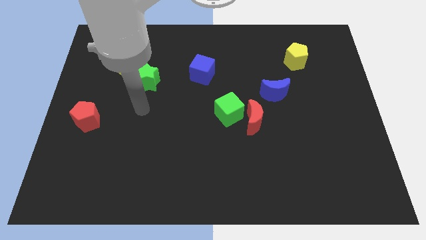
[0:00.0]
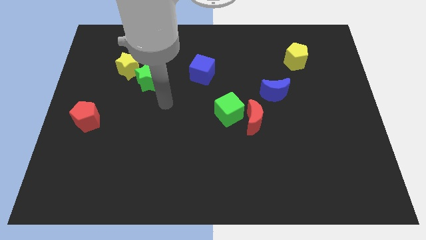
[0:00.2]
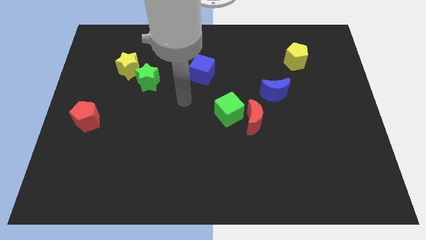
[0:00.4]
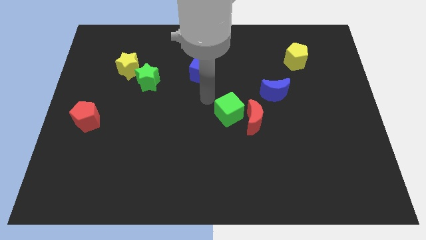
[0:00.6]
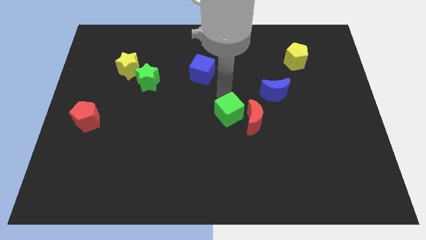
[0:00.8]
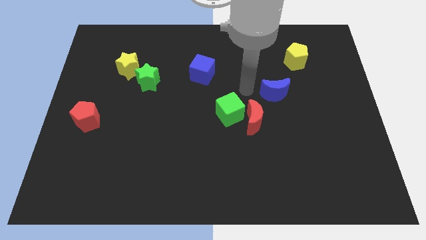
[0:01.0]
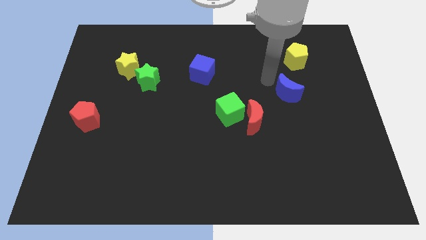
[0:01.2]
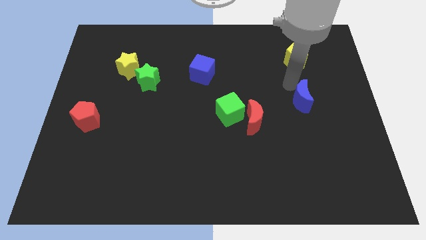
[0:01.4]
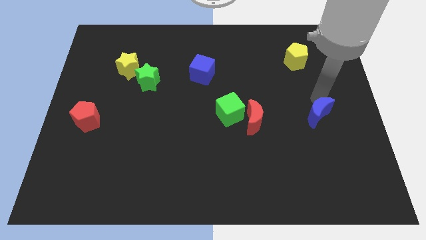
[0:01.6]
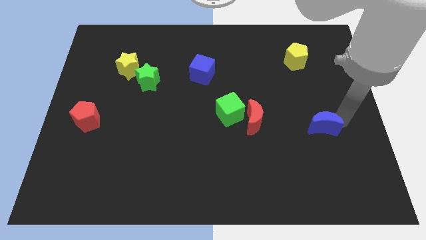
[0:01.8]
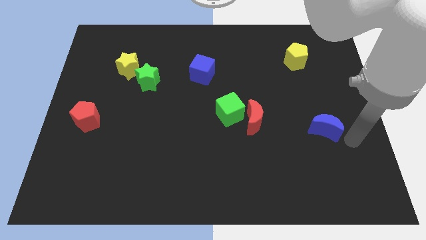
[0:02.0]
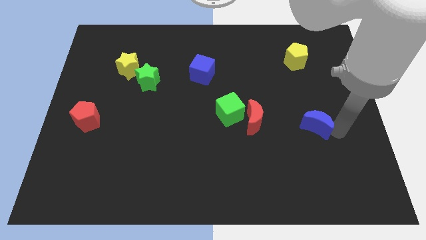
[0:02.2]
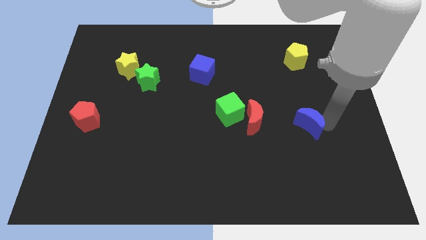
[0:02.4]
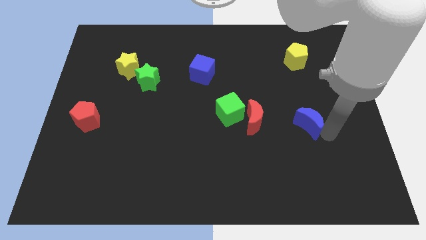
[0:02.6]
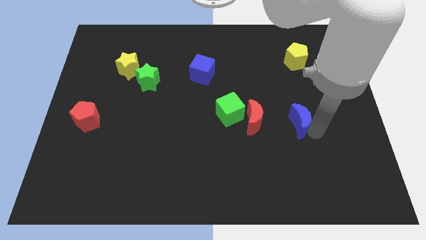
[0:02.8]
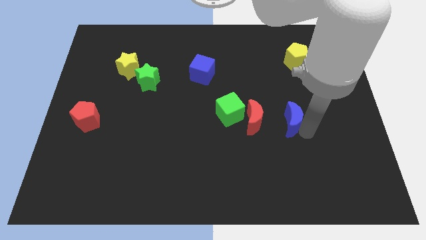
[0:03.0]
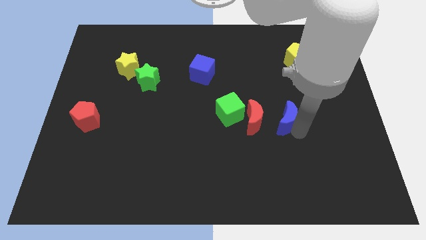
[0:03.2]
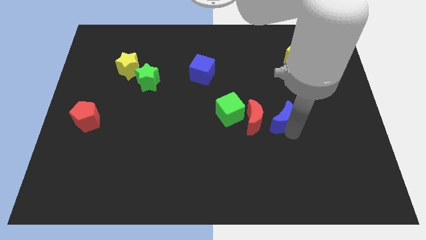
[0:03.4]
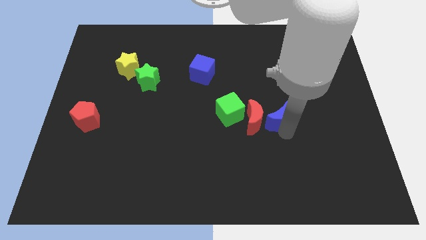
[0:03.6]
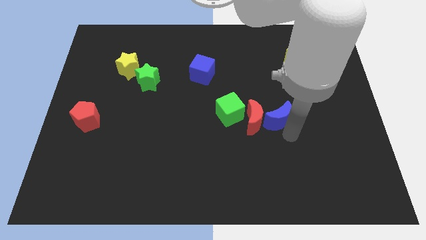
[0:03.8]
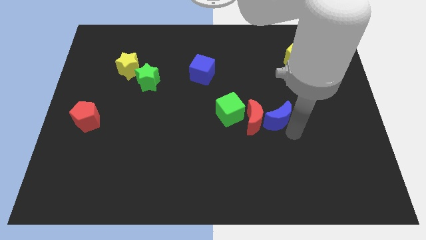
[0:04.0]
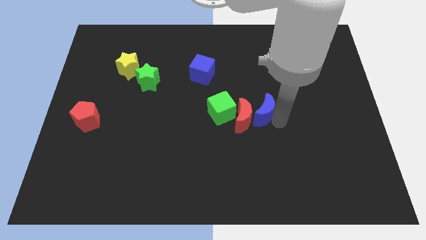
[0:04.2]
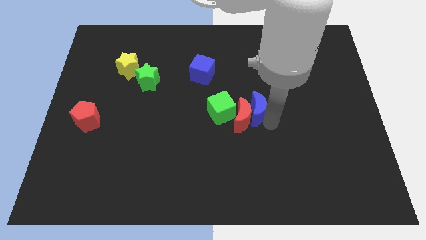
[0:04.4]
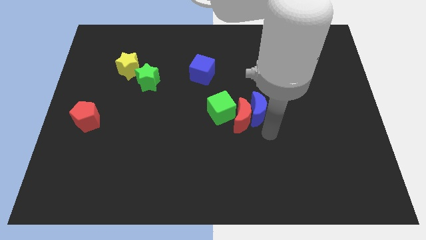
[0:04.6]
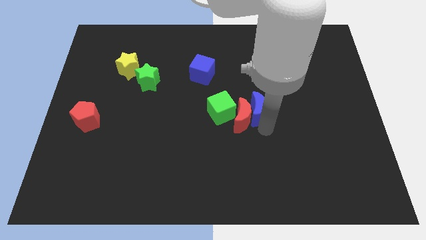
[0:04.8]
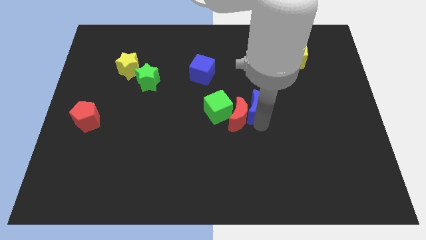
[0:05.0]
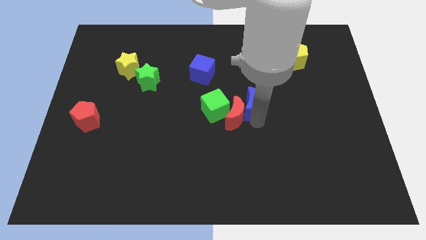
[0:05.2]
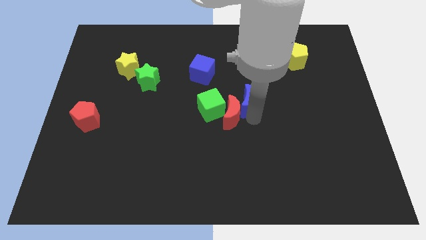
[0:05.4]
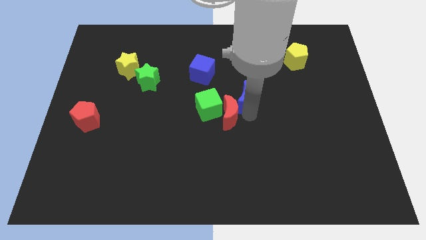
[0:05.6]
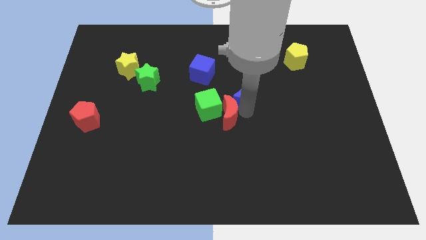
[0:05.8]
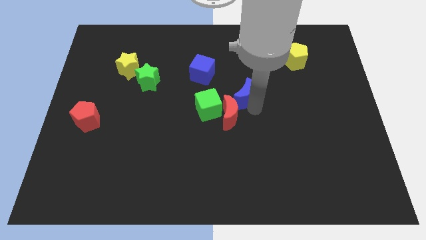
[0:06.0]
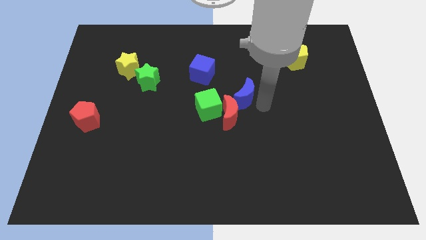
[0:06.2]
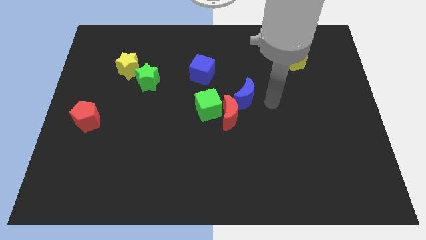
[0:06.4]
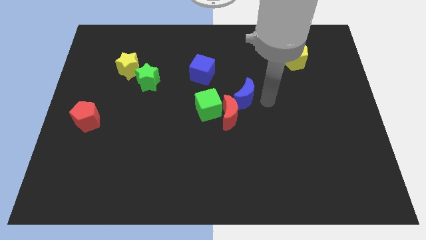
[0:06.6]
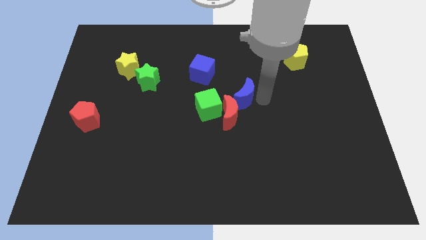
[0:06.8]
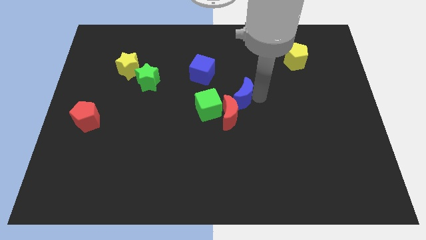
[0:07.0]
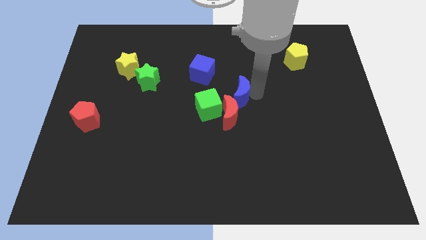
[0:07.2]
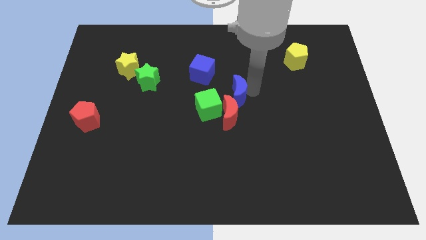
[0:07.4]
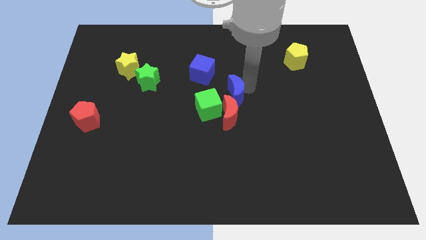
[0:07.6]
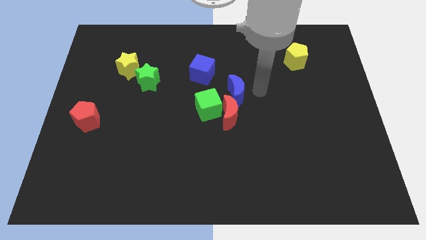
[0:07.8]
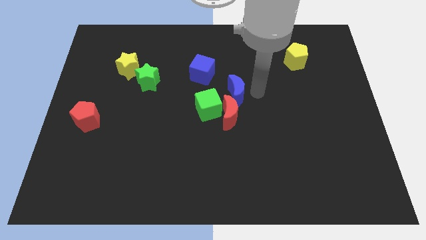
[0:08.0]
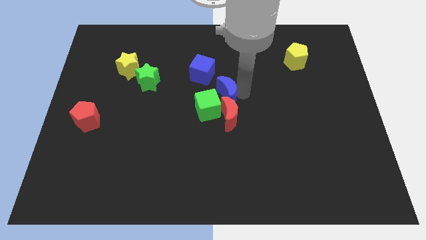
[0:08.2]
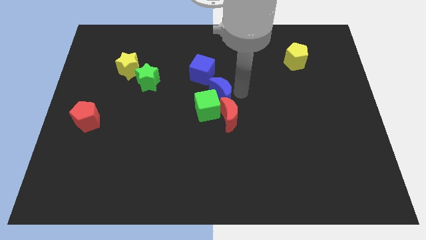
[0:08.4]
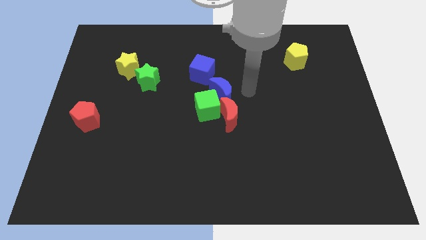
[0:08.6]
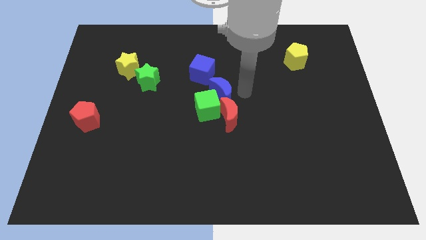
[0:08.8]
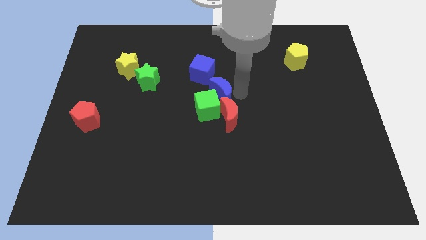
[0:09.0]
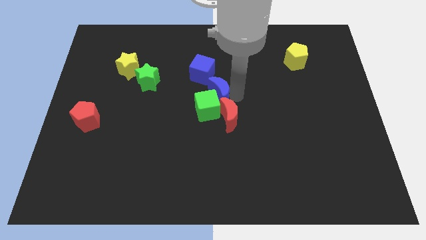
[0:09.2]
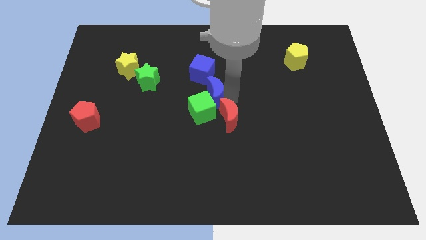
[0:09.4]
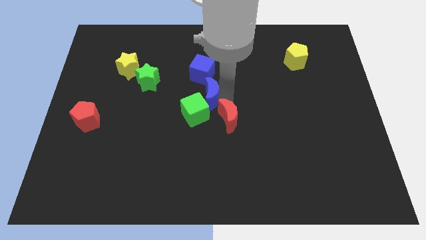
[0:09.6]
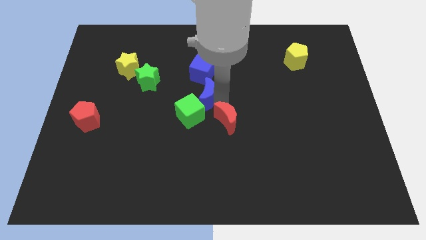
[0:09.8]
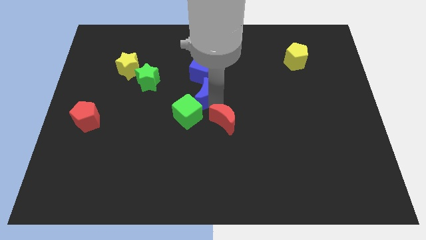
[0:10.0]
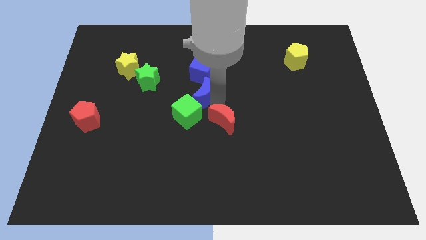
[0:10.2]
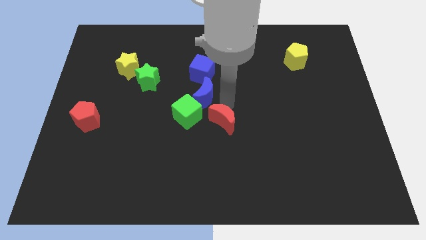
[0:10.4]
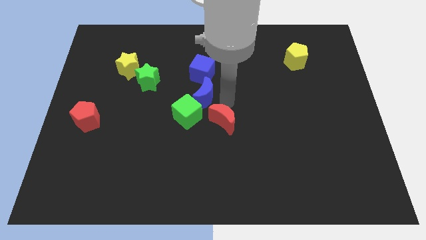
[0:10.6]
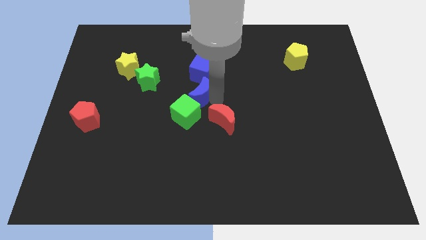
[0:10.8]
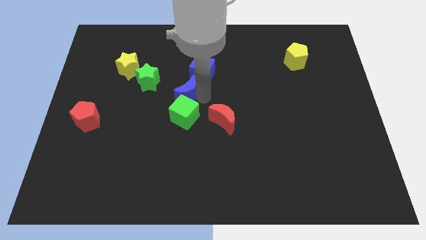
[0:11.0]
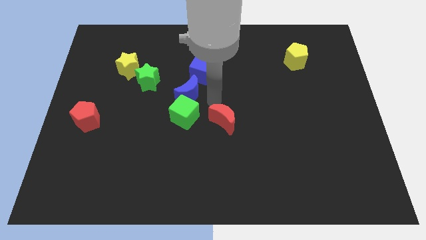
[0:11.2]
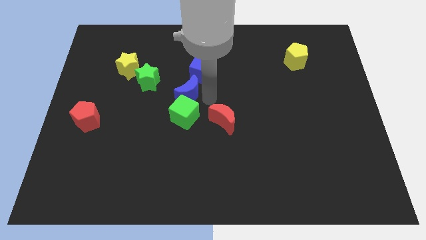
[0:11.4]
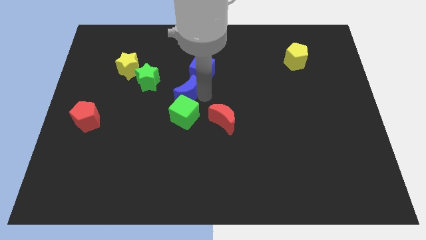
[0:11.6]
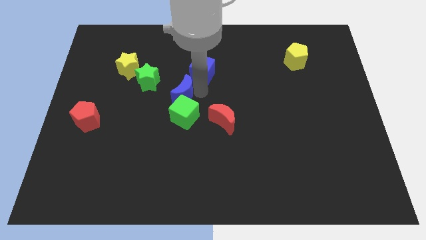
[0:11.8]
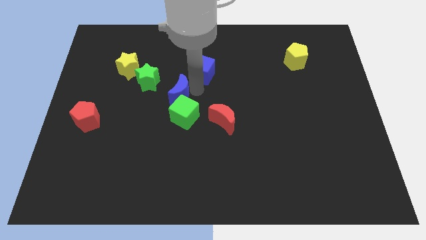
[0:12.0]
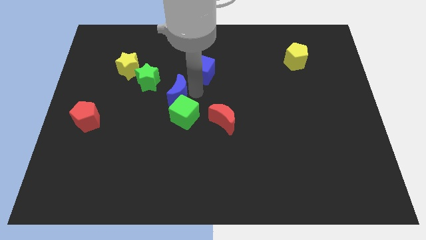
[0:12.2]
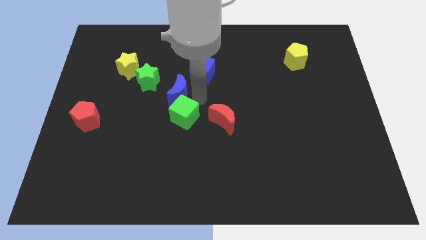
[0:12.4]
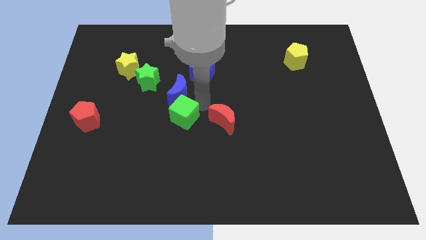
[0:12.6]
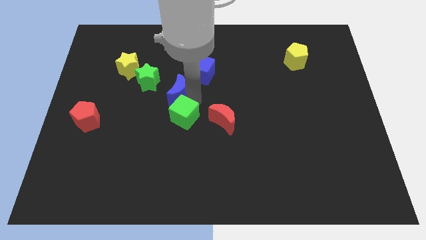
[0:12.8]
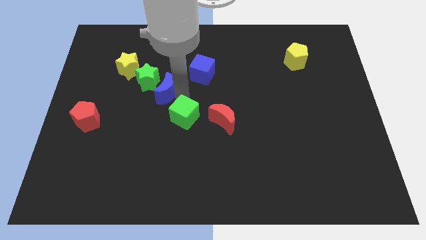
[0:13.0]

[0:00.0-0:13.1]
put the blue moon close to the green star

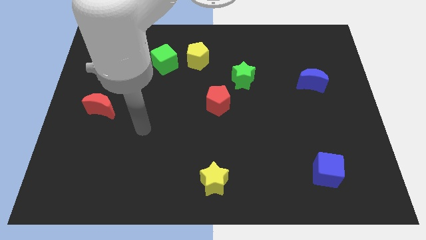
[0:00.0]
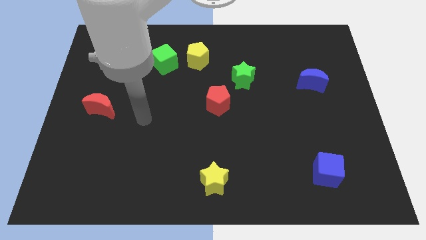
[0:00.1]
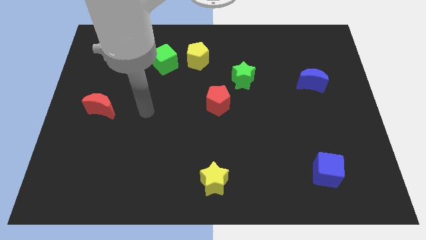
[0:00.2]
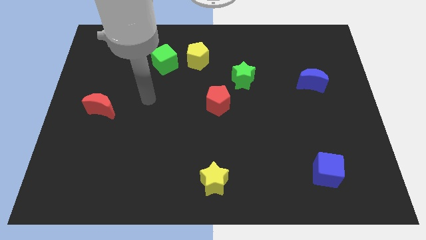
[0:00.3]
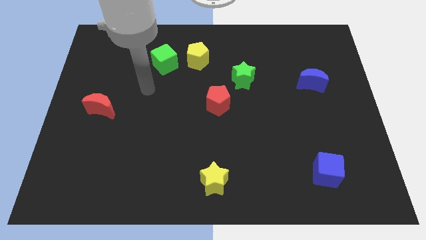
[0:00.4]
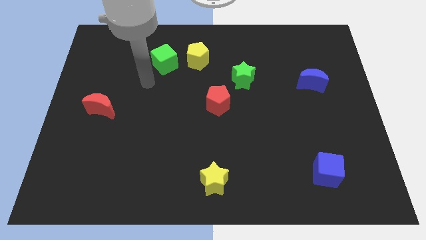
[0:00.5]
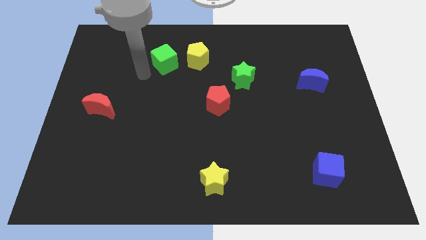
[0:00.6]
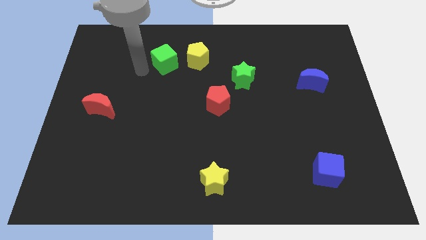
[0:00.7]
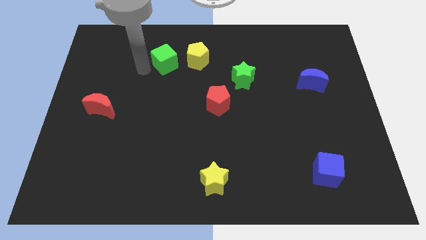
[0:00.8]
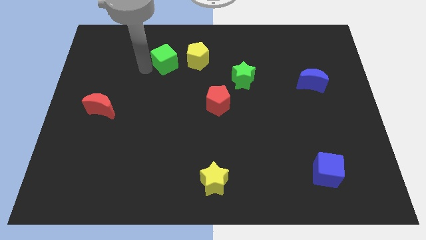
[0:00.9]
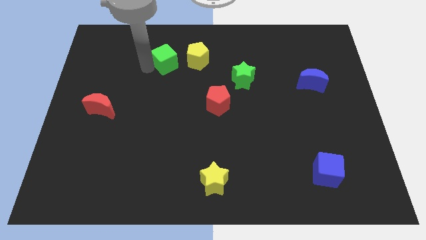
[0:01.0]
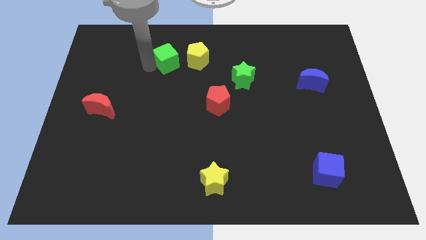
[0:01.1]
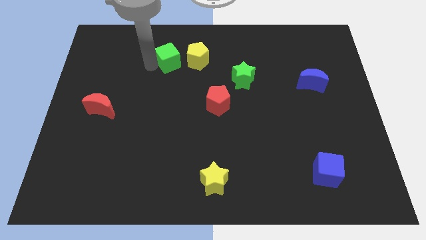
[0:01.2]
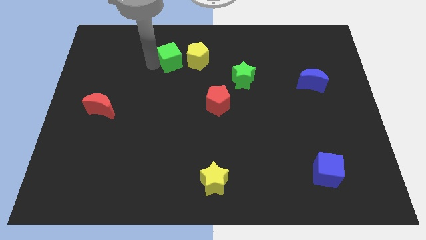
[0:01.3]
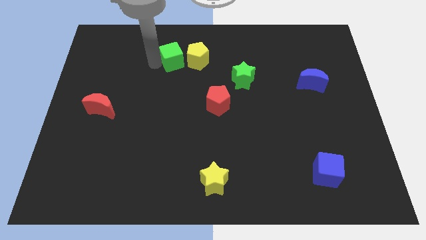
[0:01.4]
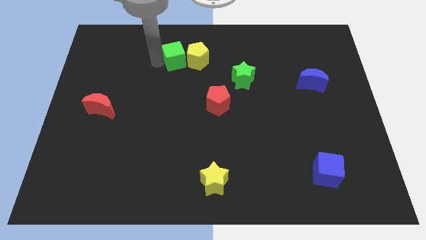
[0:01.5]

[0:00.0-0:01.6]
move the green cube close to the yellow pentagon
